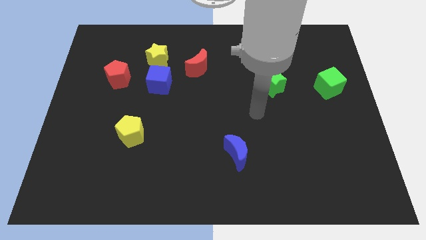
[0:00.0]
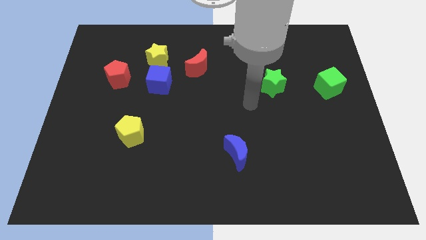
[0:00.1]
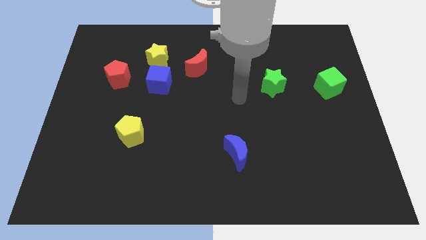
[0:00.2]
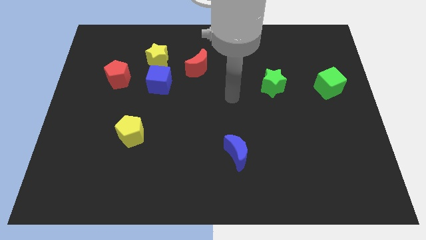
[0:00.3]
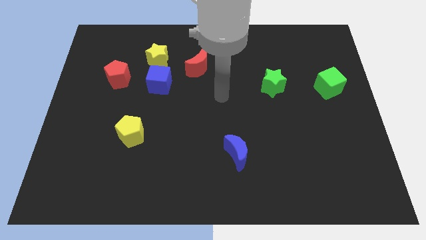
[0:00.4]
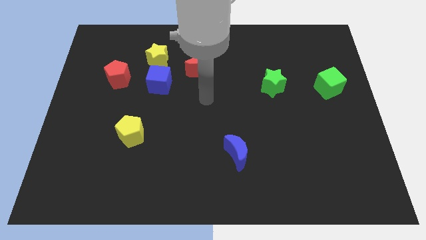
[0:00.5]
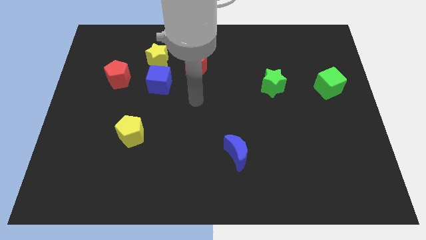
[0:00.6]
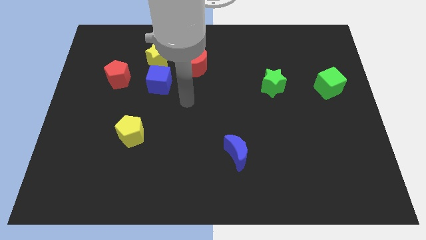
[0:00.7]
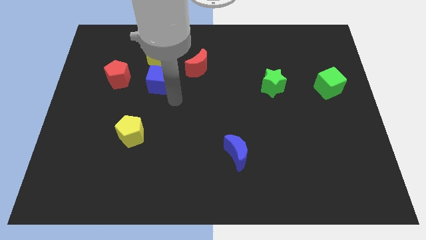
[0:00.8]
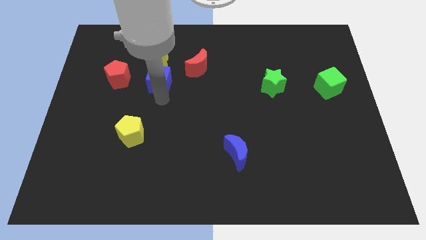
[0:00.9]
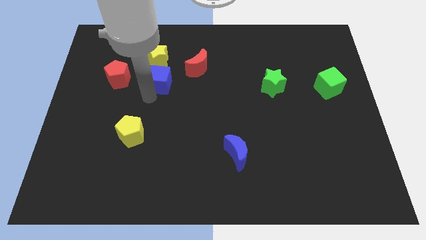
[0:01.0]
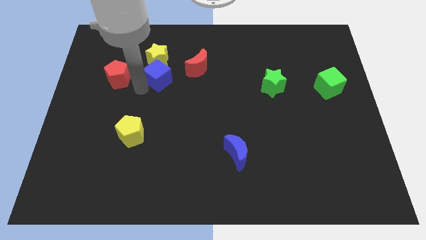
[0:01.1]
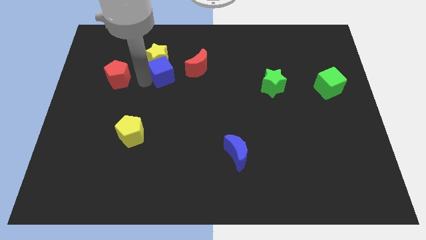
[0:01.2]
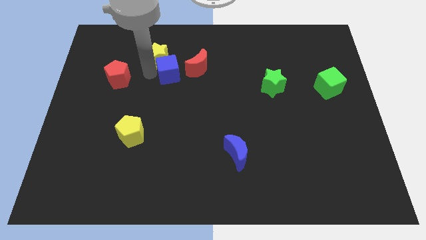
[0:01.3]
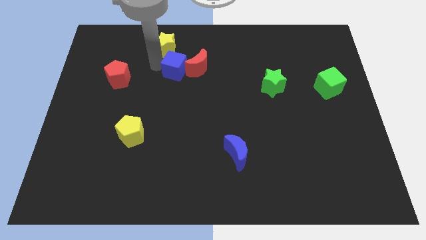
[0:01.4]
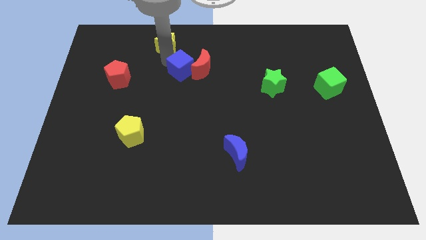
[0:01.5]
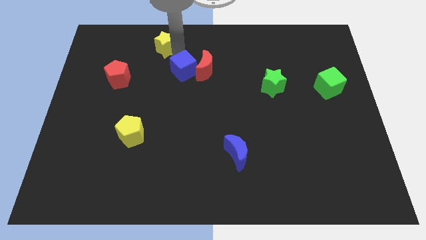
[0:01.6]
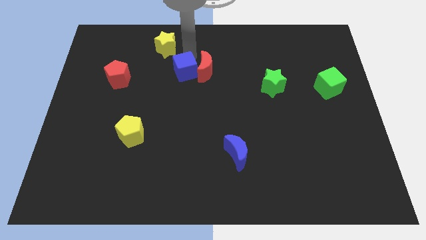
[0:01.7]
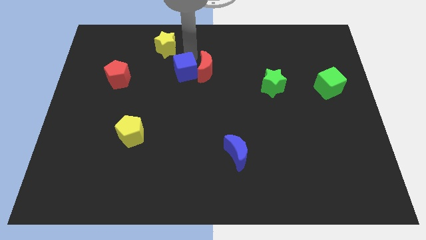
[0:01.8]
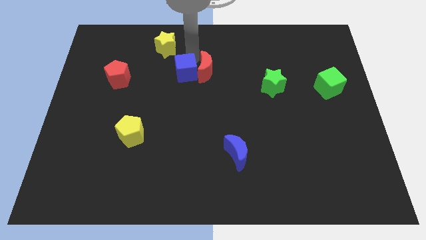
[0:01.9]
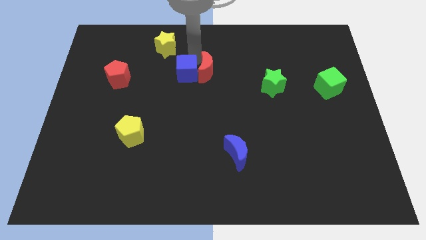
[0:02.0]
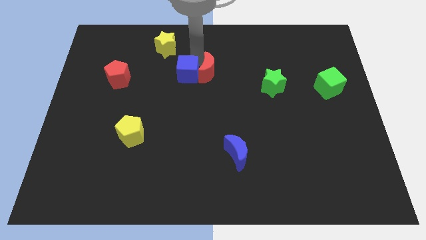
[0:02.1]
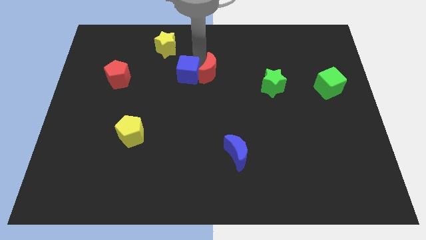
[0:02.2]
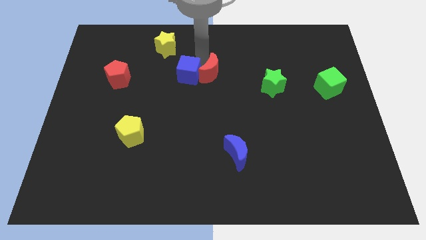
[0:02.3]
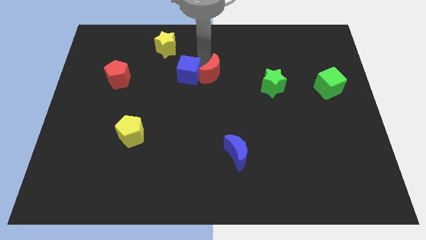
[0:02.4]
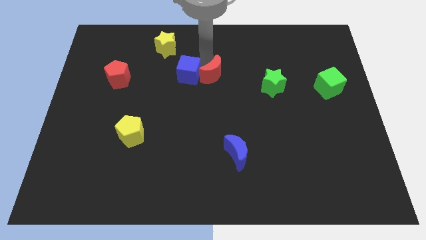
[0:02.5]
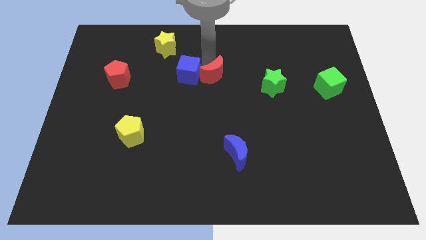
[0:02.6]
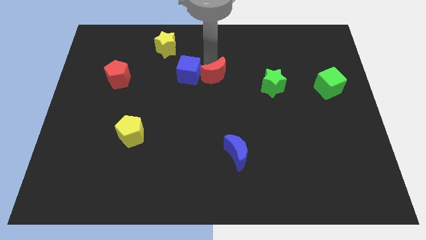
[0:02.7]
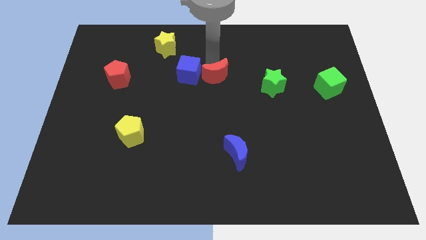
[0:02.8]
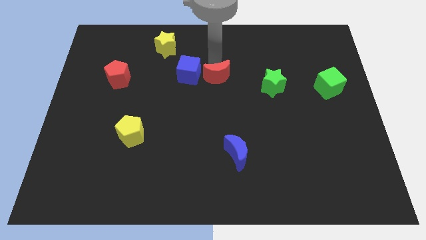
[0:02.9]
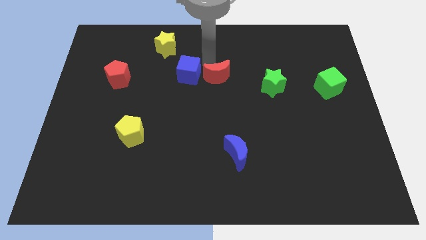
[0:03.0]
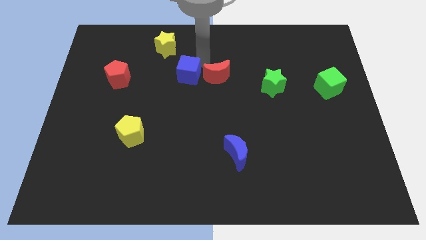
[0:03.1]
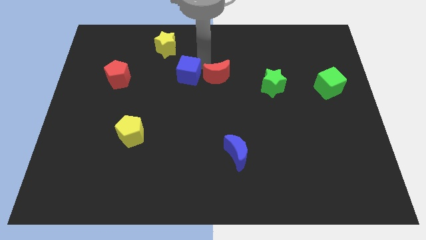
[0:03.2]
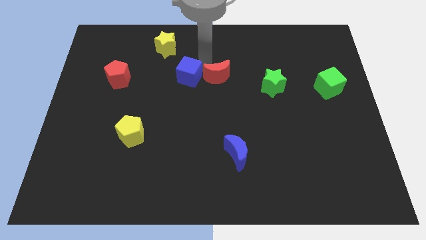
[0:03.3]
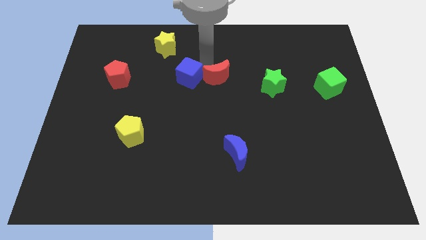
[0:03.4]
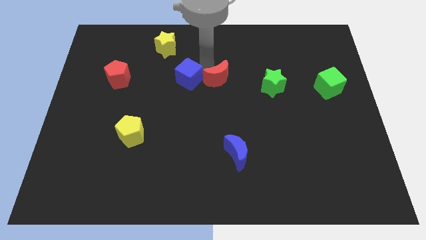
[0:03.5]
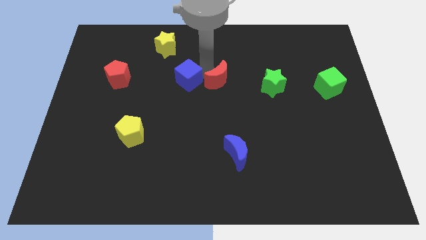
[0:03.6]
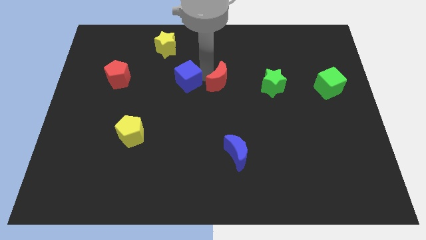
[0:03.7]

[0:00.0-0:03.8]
move the red moon somewhat down and to the right diagonally

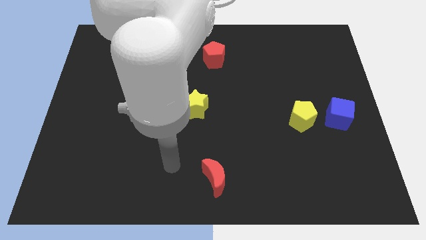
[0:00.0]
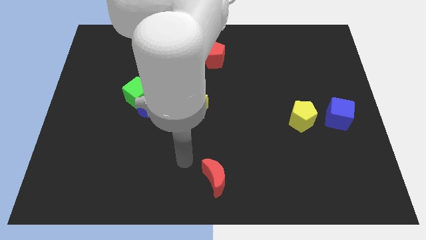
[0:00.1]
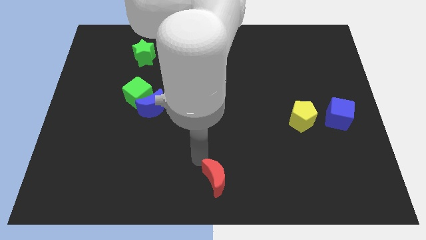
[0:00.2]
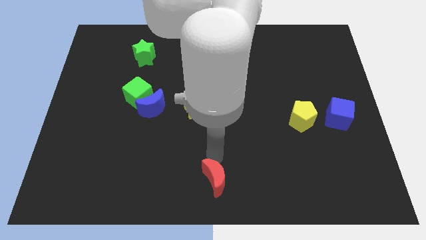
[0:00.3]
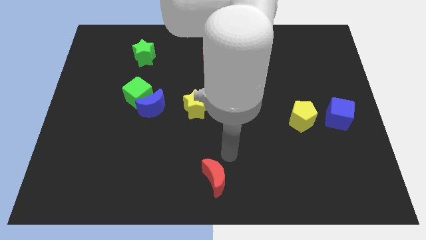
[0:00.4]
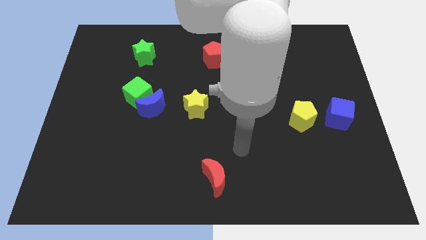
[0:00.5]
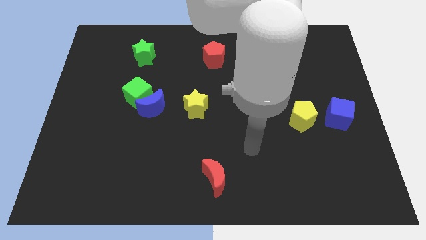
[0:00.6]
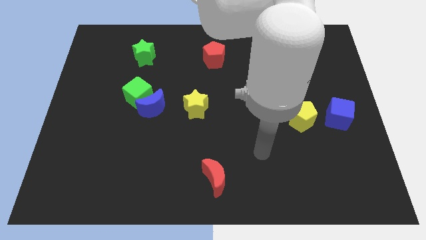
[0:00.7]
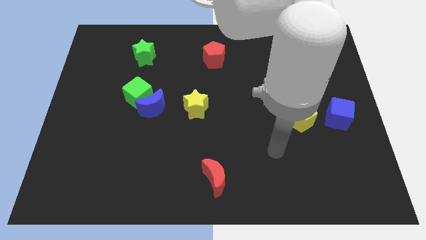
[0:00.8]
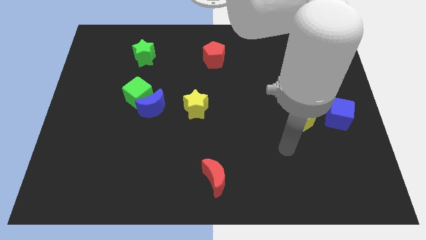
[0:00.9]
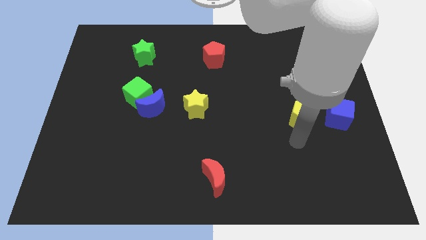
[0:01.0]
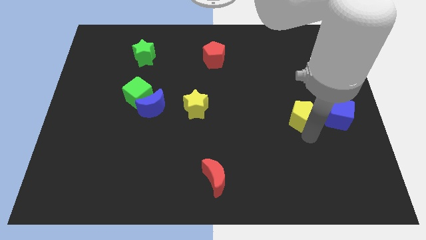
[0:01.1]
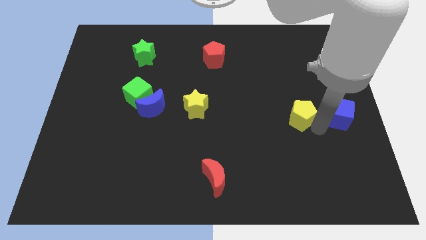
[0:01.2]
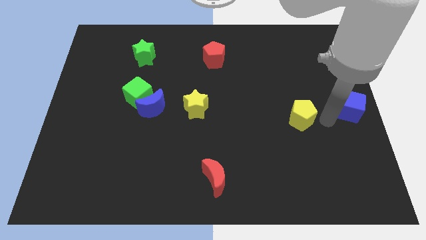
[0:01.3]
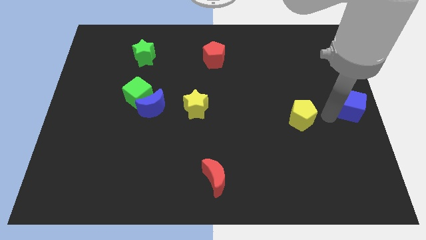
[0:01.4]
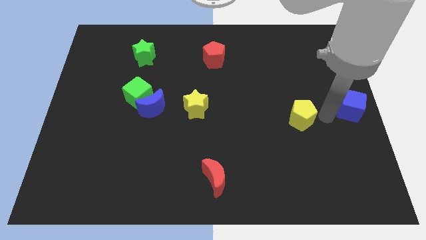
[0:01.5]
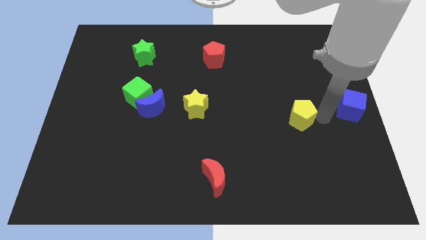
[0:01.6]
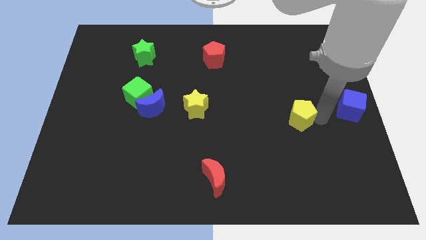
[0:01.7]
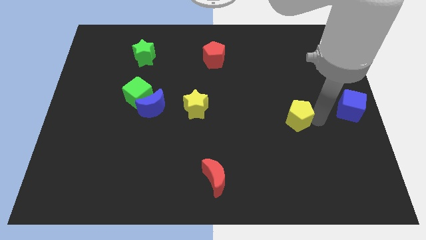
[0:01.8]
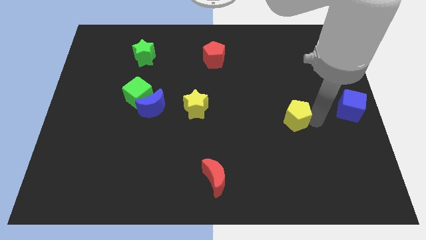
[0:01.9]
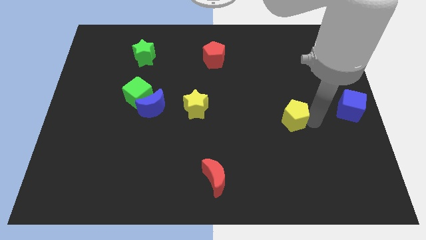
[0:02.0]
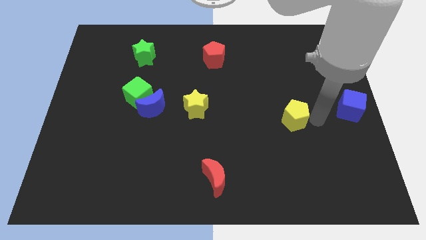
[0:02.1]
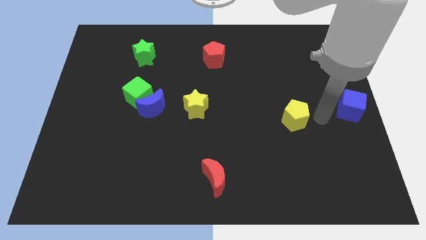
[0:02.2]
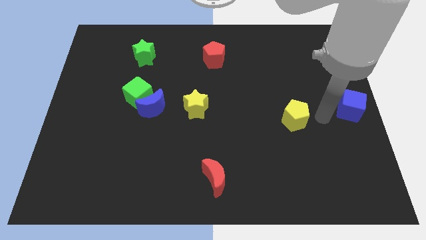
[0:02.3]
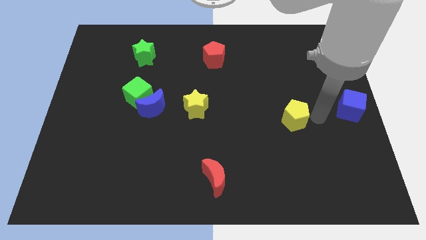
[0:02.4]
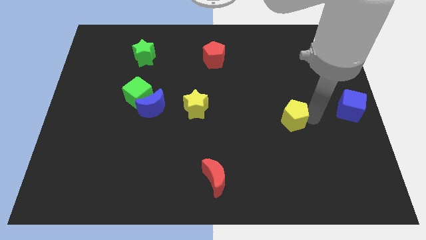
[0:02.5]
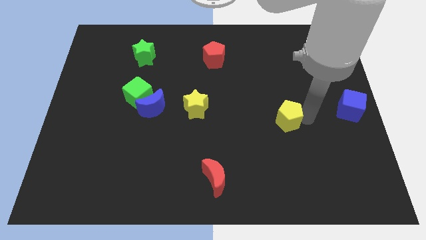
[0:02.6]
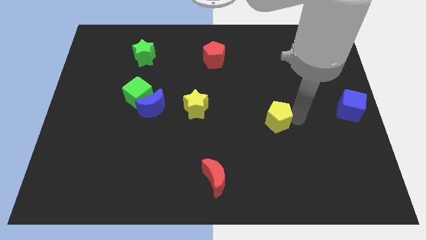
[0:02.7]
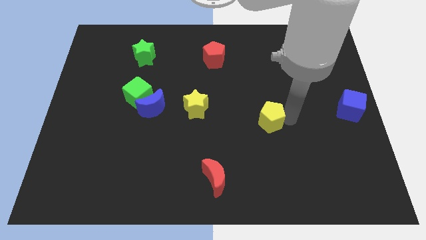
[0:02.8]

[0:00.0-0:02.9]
slightly slide the yellow pentagon to the left

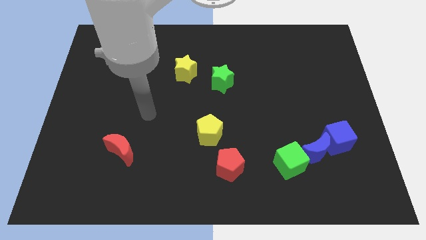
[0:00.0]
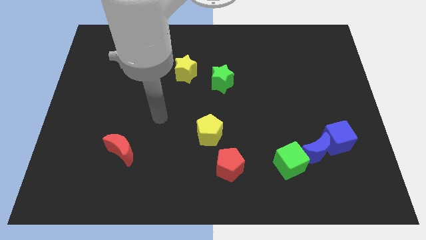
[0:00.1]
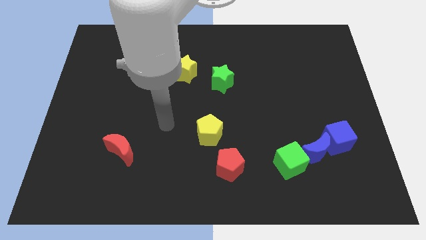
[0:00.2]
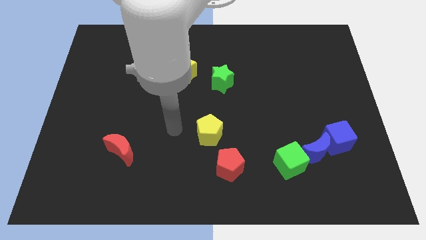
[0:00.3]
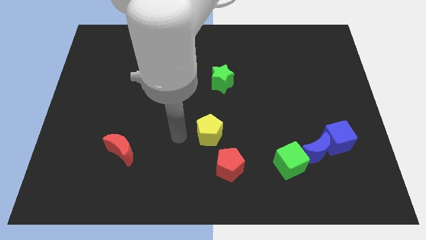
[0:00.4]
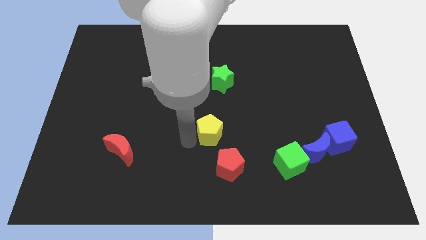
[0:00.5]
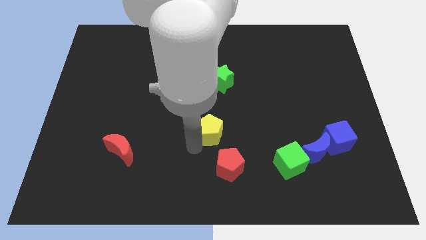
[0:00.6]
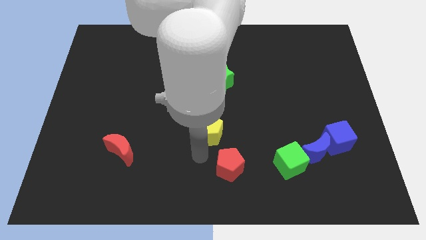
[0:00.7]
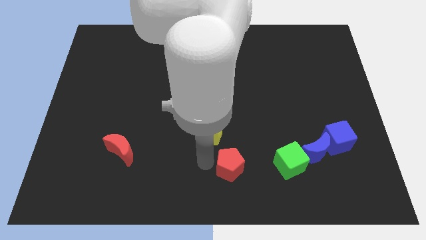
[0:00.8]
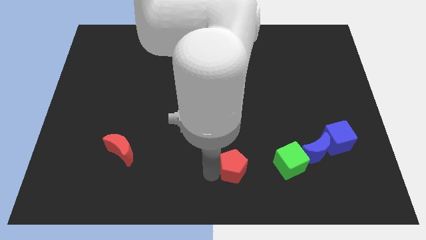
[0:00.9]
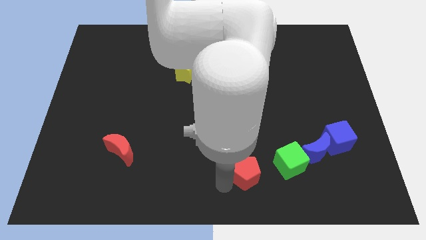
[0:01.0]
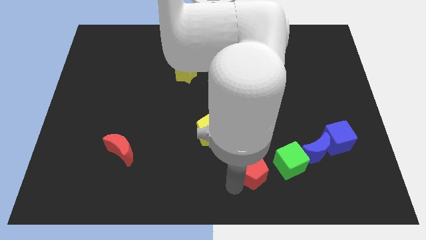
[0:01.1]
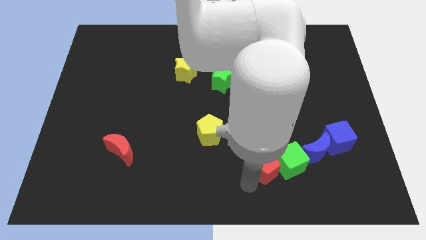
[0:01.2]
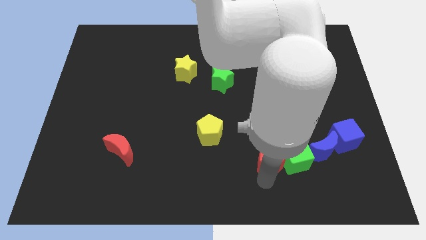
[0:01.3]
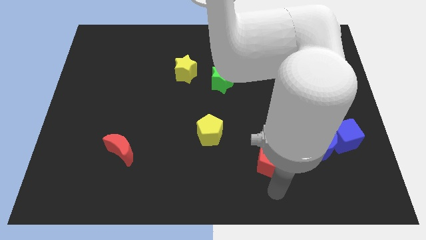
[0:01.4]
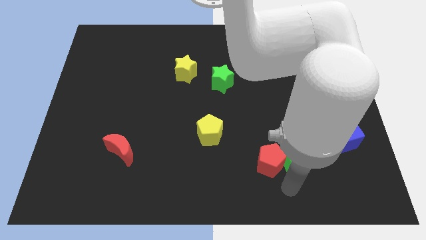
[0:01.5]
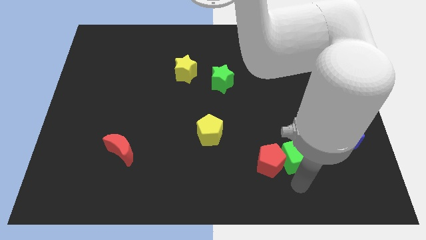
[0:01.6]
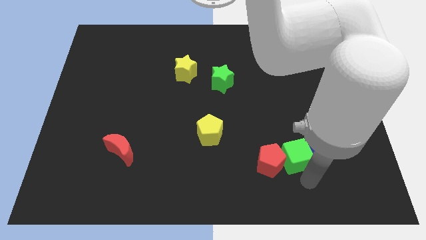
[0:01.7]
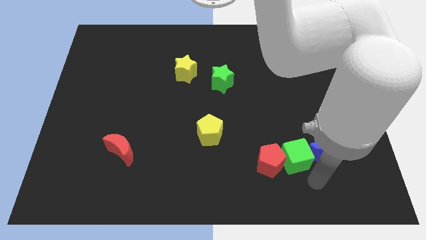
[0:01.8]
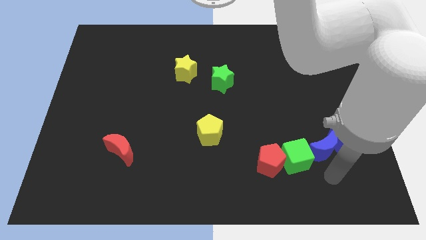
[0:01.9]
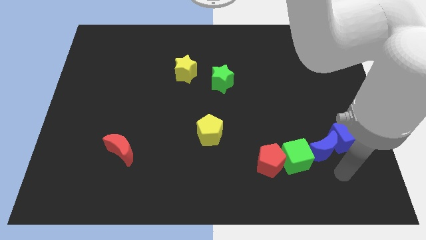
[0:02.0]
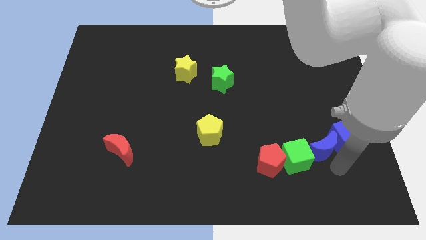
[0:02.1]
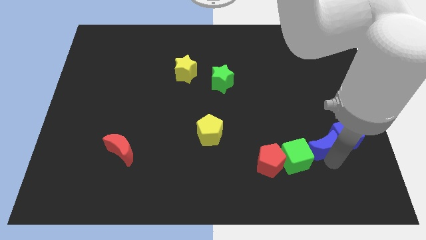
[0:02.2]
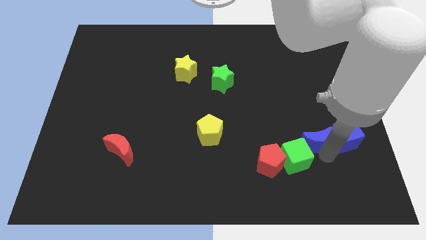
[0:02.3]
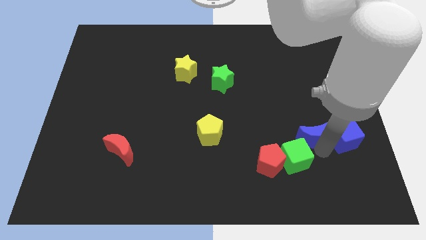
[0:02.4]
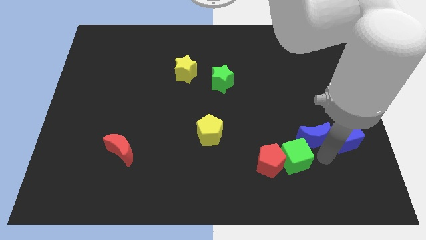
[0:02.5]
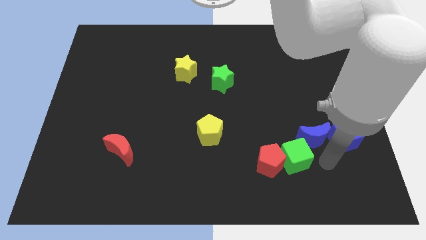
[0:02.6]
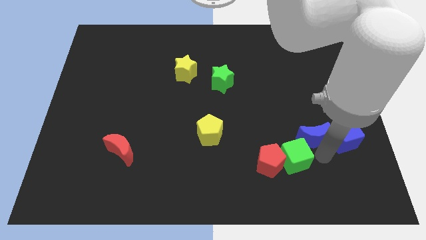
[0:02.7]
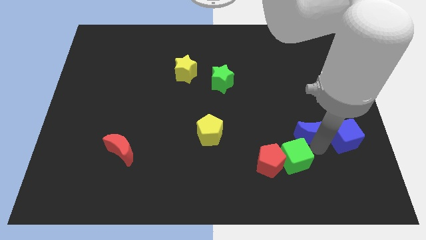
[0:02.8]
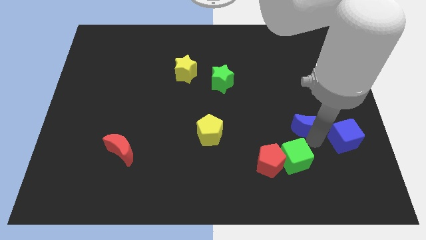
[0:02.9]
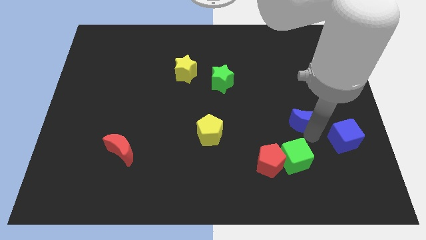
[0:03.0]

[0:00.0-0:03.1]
slightly slide the blue moon upwards
